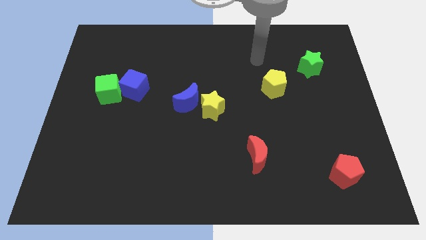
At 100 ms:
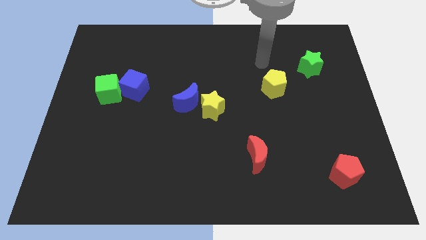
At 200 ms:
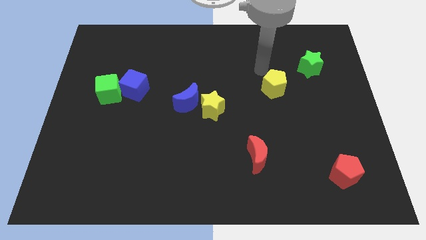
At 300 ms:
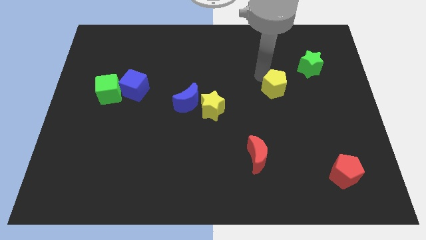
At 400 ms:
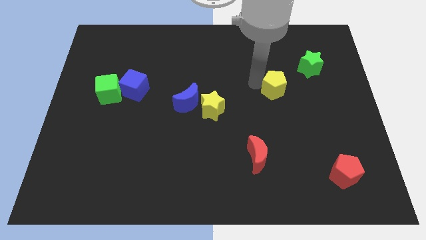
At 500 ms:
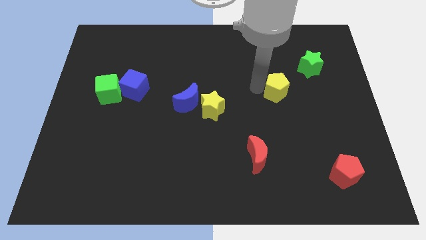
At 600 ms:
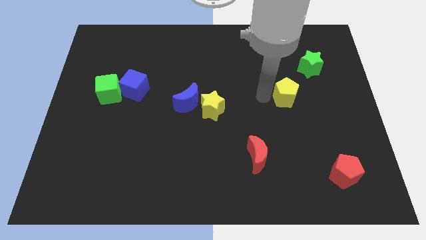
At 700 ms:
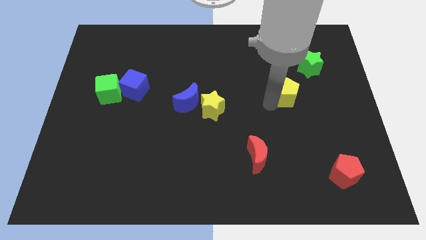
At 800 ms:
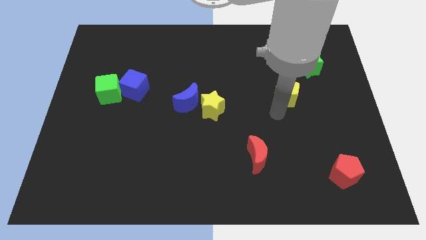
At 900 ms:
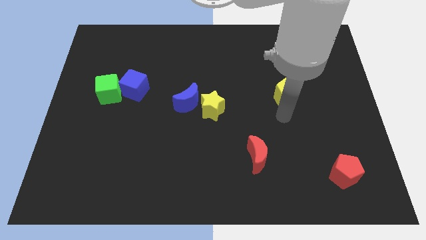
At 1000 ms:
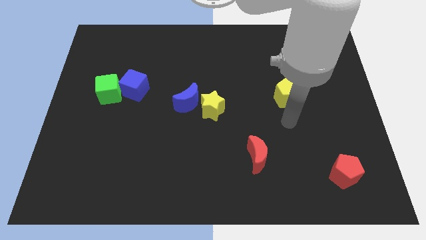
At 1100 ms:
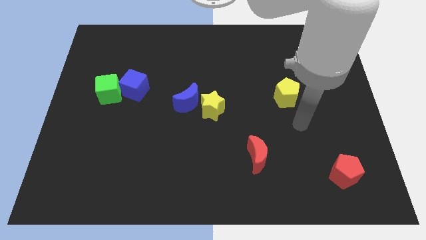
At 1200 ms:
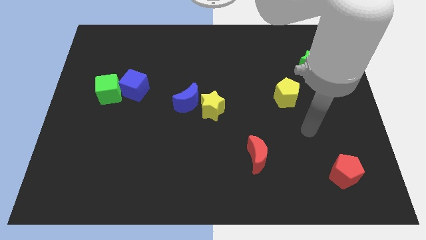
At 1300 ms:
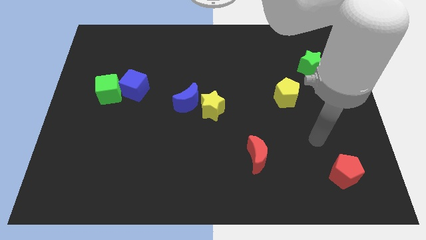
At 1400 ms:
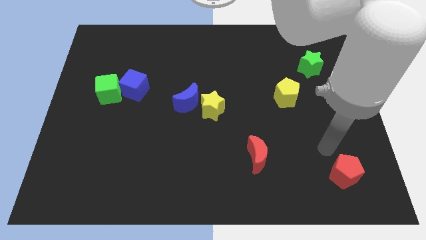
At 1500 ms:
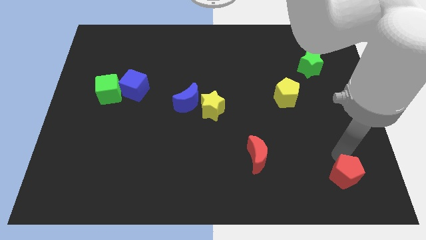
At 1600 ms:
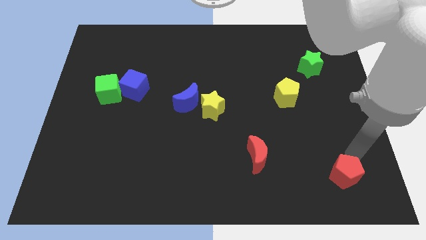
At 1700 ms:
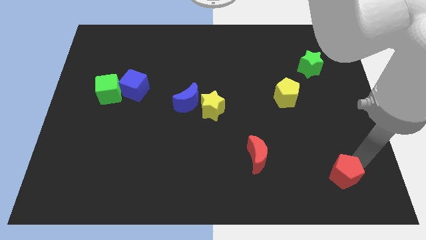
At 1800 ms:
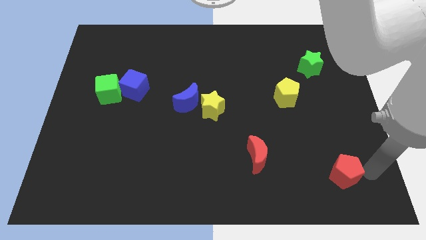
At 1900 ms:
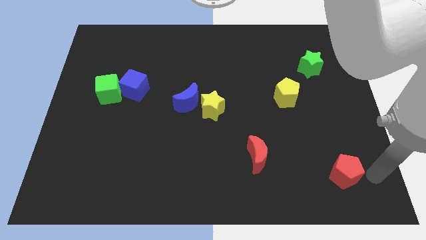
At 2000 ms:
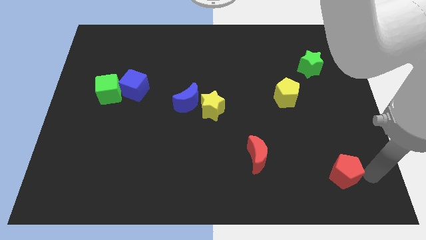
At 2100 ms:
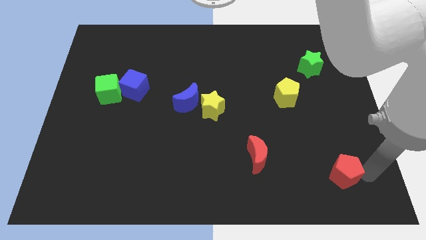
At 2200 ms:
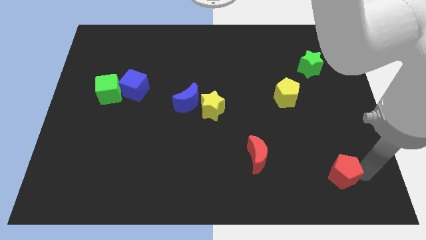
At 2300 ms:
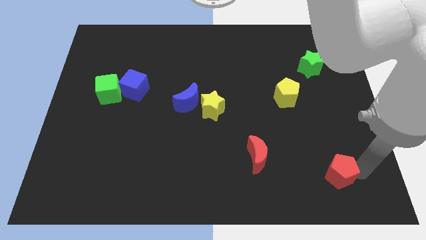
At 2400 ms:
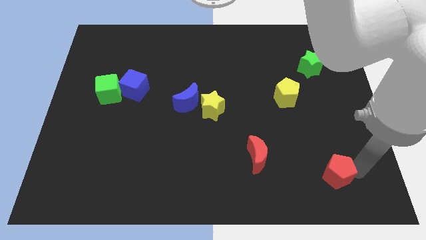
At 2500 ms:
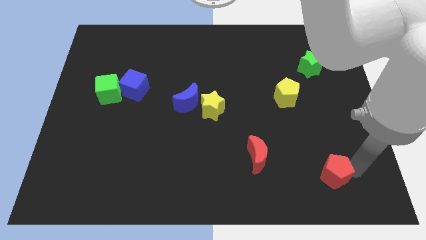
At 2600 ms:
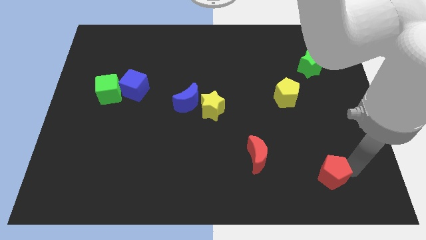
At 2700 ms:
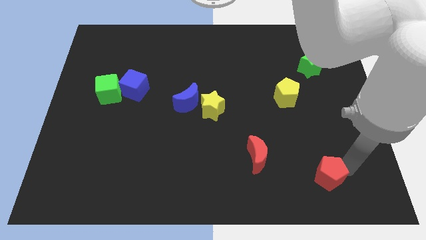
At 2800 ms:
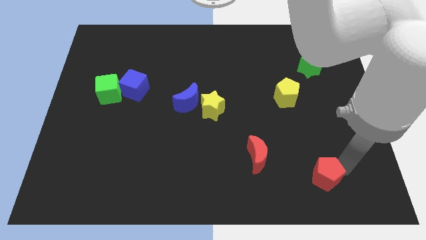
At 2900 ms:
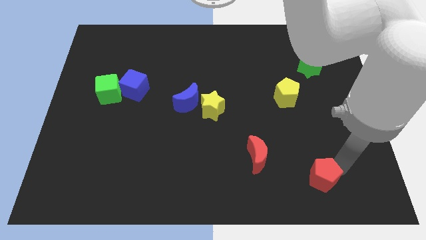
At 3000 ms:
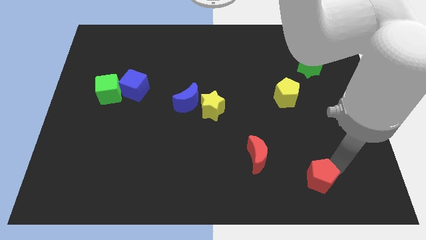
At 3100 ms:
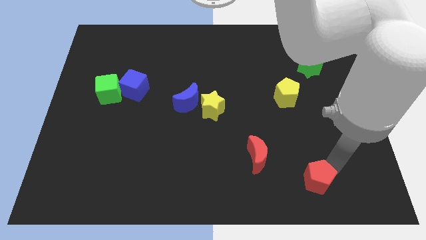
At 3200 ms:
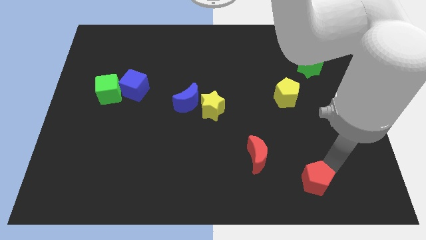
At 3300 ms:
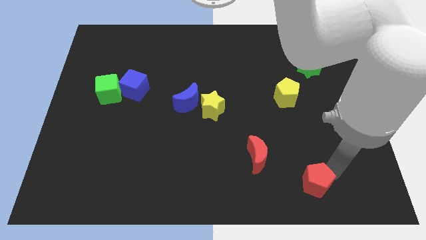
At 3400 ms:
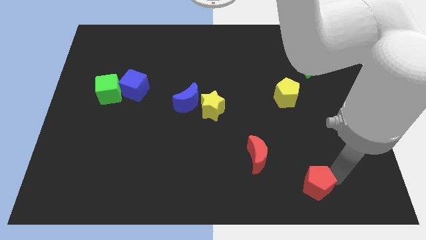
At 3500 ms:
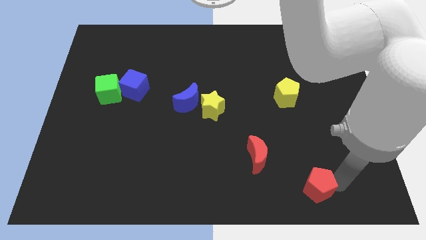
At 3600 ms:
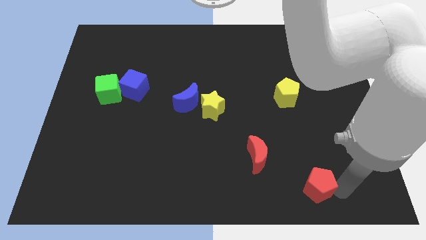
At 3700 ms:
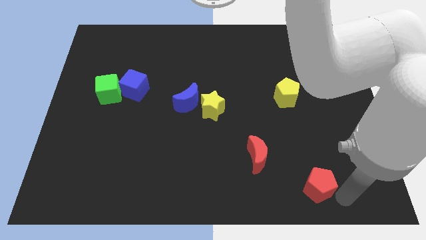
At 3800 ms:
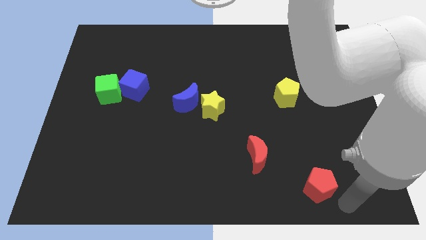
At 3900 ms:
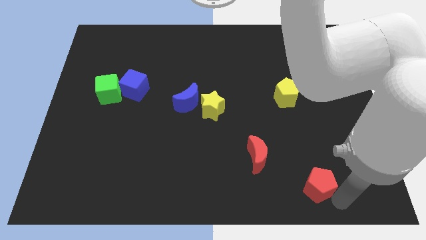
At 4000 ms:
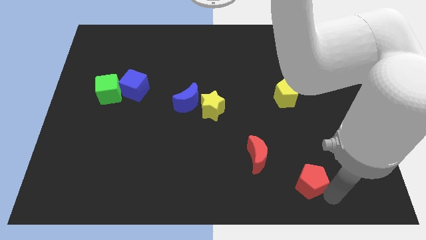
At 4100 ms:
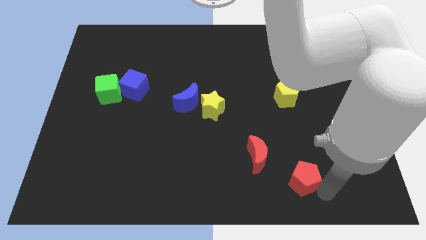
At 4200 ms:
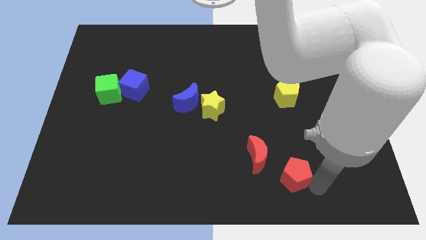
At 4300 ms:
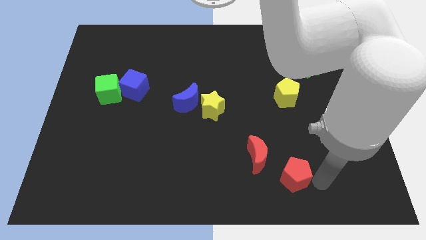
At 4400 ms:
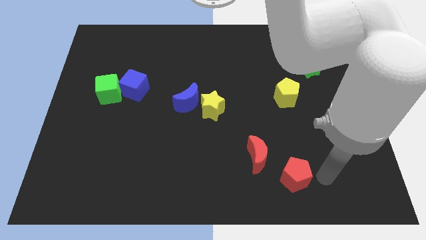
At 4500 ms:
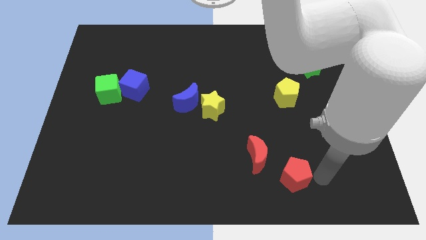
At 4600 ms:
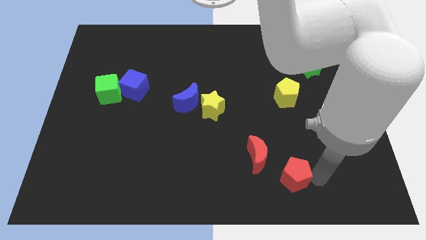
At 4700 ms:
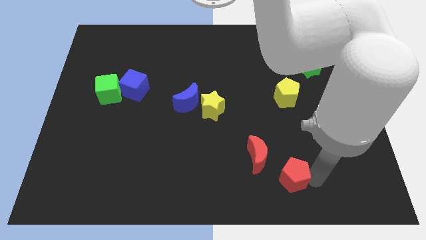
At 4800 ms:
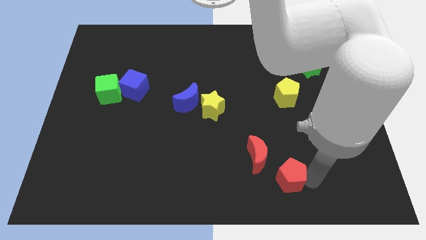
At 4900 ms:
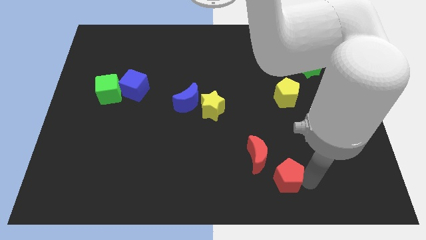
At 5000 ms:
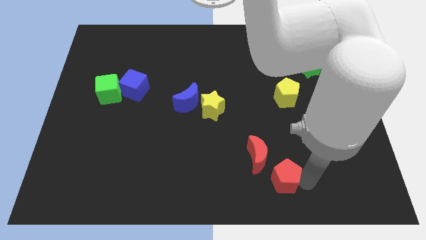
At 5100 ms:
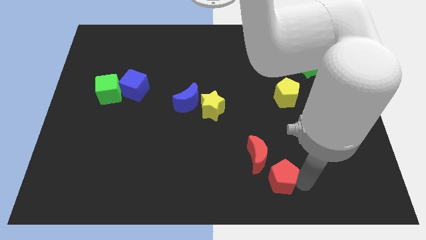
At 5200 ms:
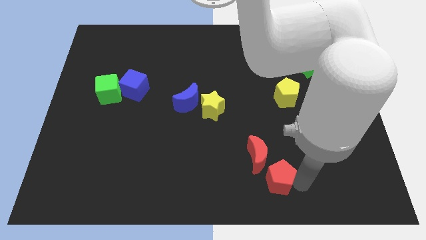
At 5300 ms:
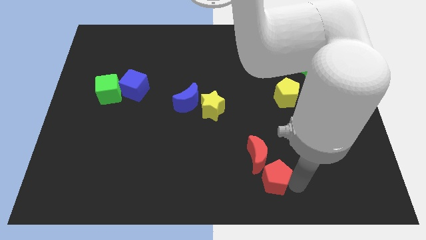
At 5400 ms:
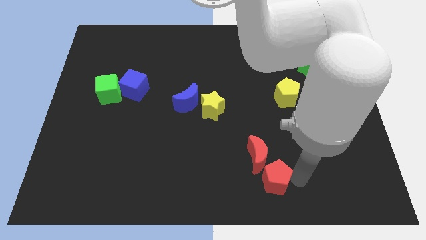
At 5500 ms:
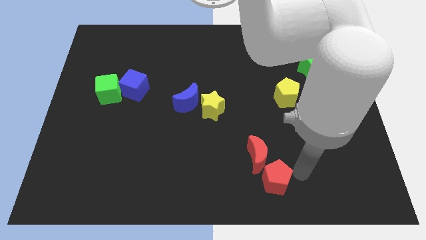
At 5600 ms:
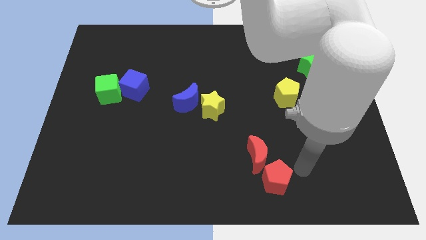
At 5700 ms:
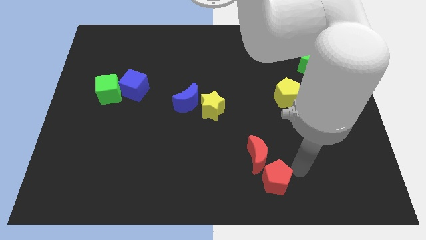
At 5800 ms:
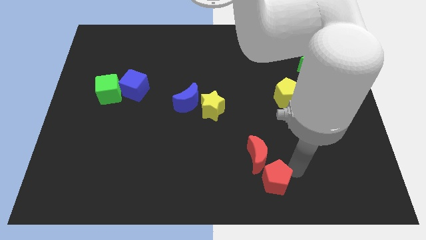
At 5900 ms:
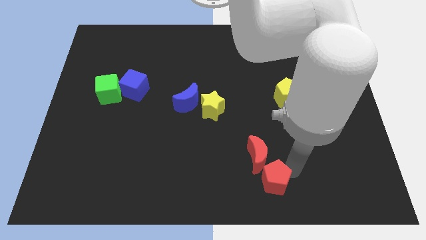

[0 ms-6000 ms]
put the red pentagon to the bottom
